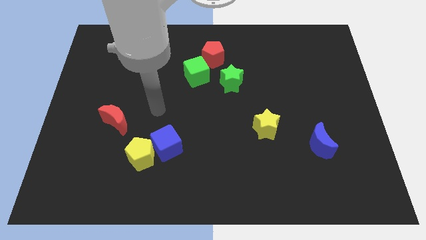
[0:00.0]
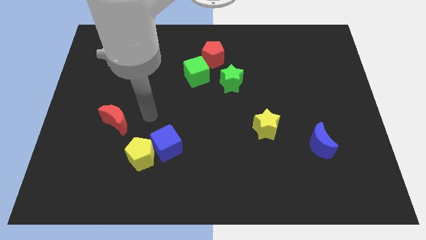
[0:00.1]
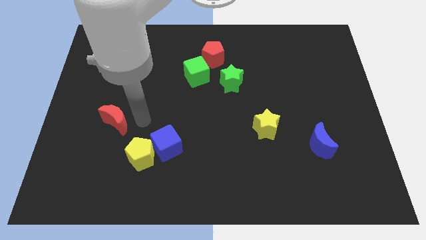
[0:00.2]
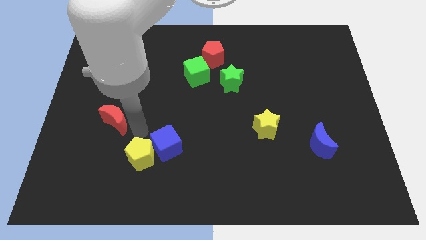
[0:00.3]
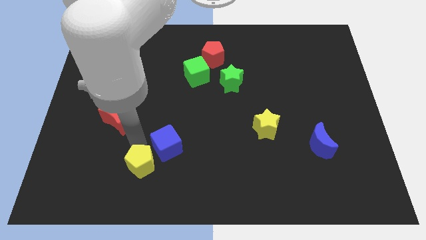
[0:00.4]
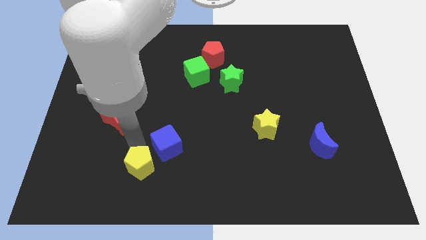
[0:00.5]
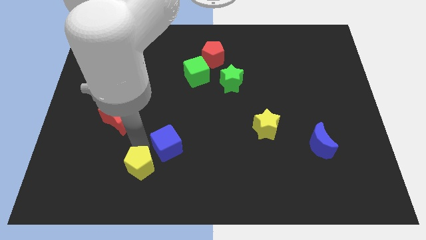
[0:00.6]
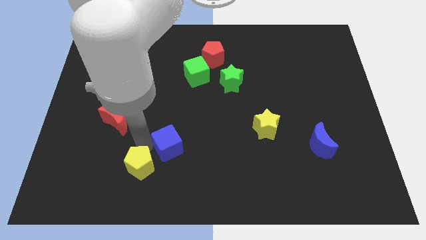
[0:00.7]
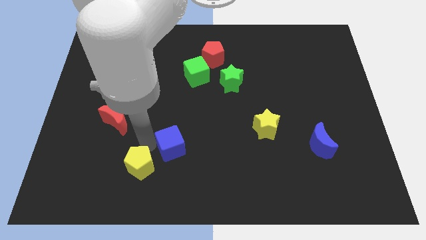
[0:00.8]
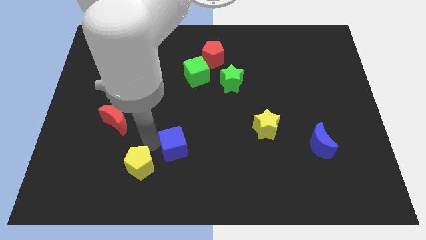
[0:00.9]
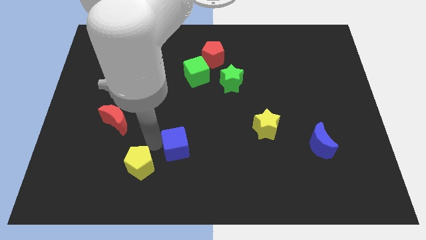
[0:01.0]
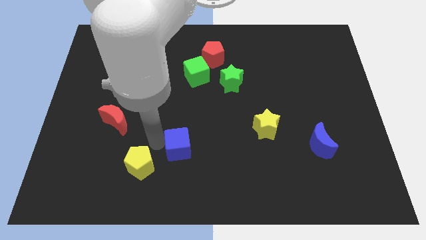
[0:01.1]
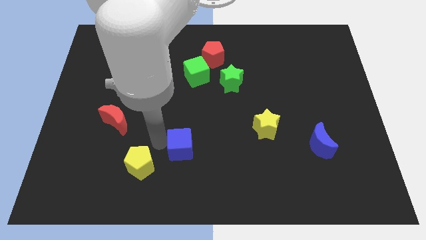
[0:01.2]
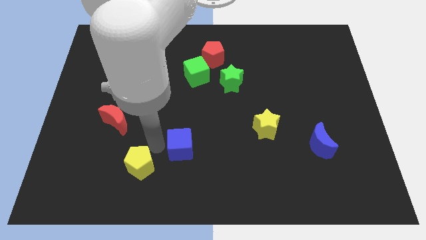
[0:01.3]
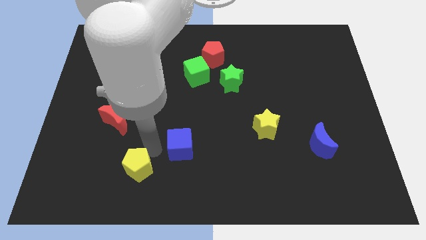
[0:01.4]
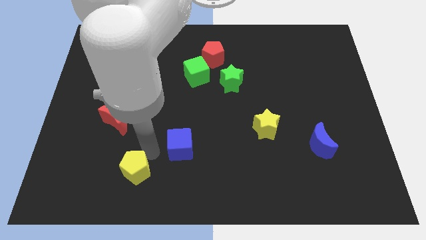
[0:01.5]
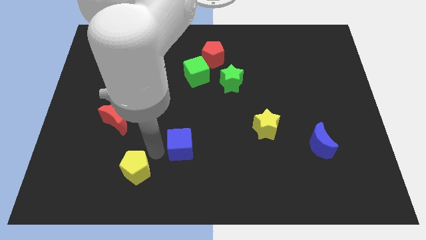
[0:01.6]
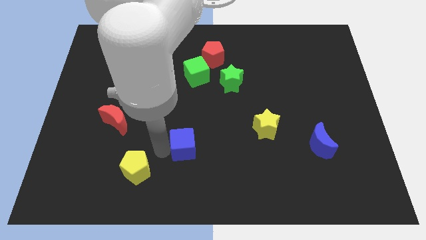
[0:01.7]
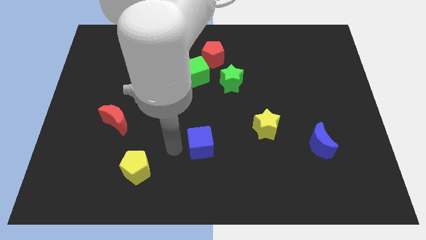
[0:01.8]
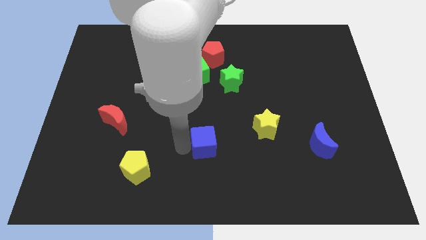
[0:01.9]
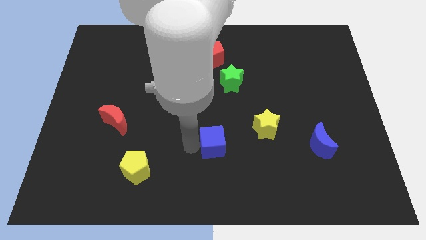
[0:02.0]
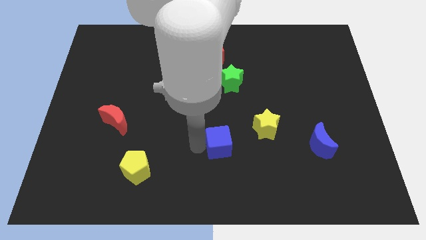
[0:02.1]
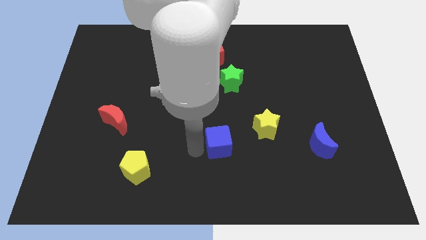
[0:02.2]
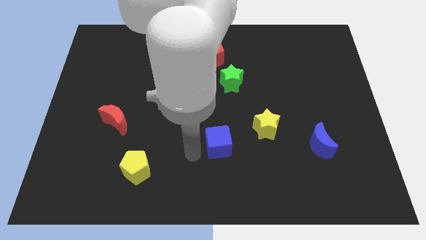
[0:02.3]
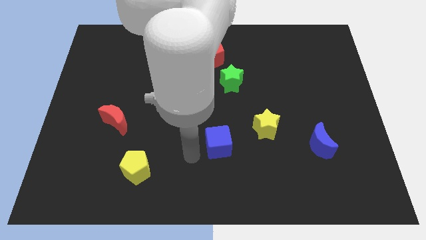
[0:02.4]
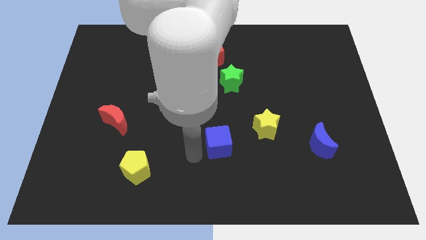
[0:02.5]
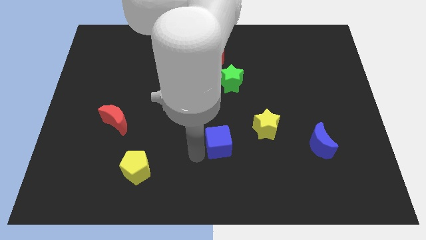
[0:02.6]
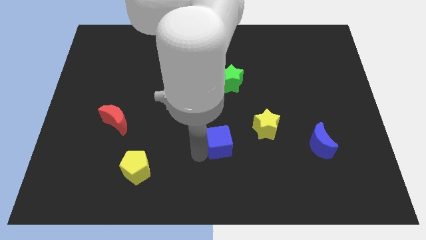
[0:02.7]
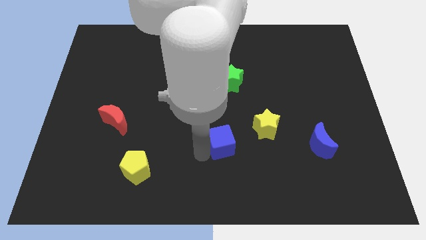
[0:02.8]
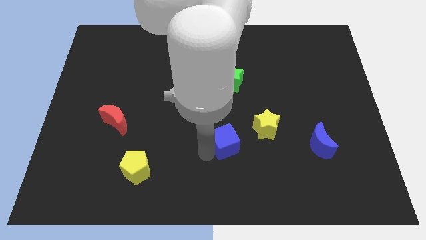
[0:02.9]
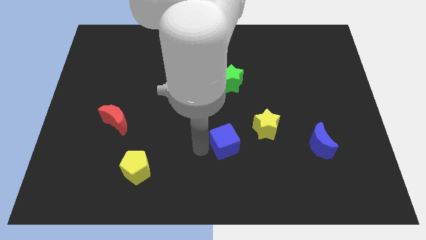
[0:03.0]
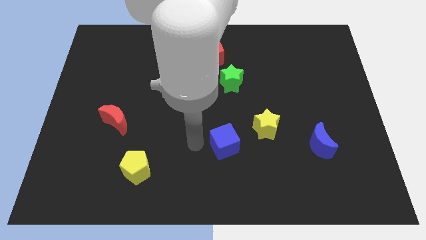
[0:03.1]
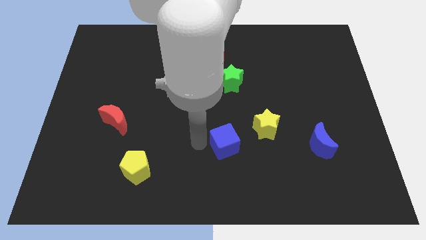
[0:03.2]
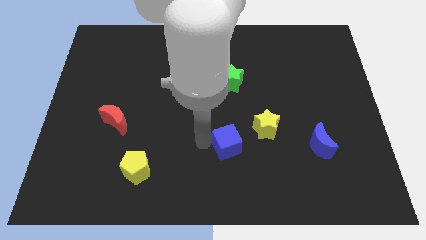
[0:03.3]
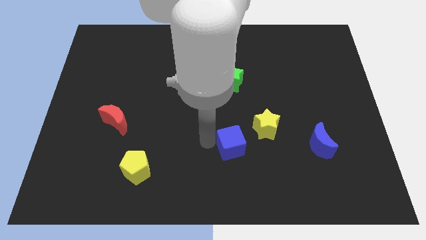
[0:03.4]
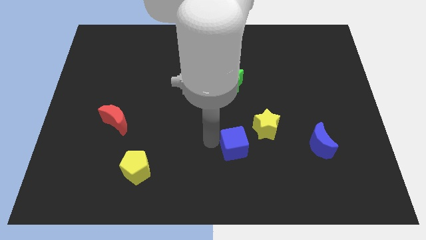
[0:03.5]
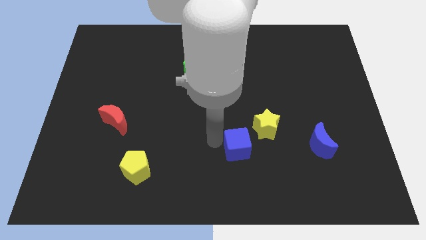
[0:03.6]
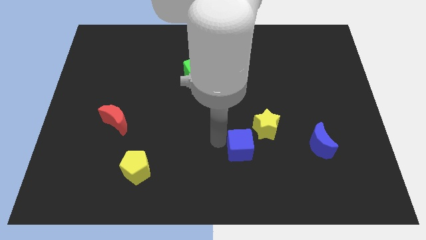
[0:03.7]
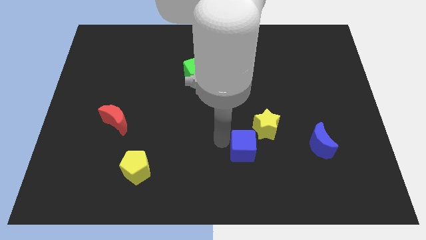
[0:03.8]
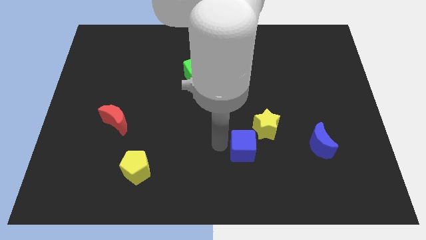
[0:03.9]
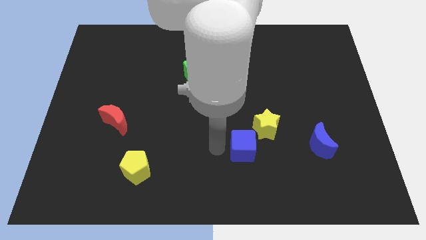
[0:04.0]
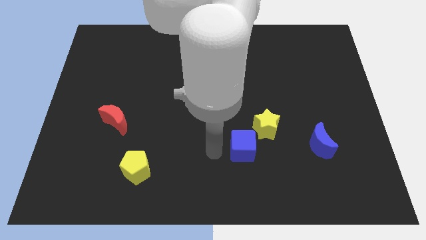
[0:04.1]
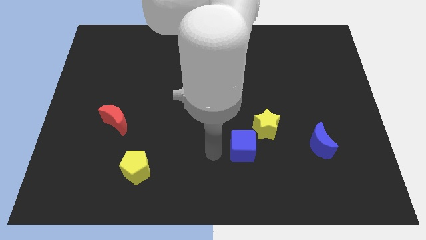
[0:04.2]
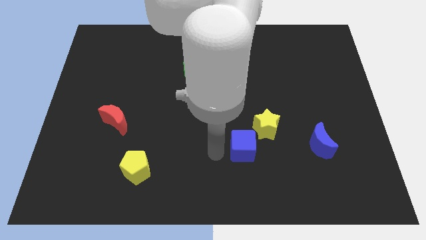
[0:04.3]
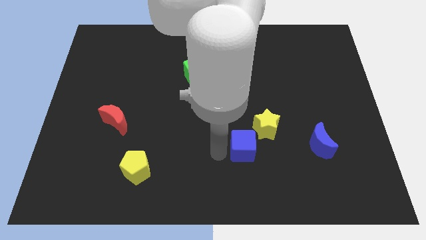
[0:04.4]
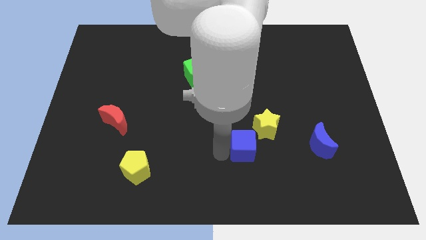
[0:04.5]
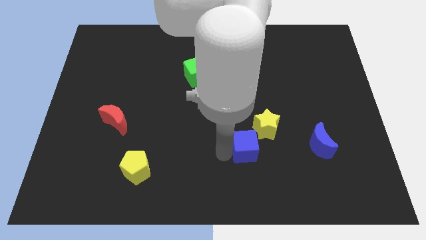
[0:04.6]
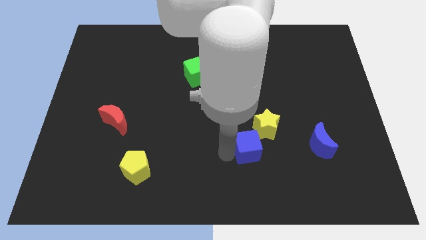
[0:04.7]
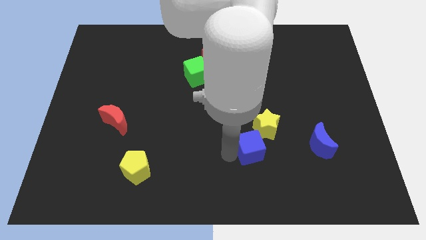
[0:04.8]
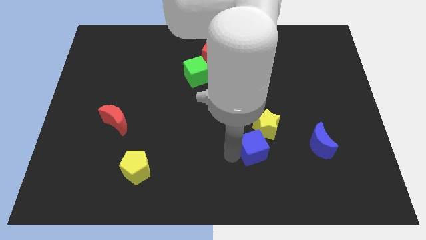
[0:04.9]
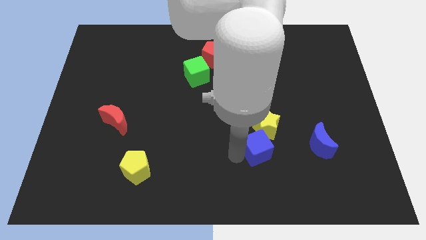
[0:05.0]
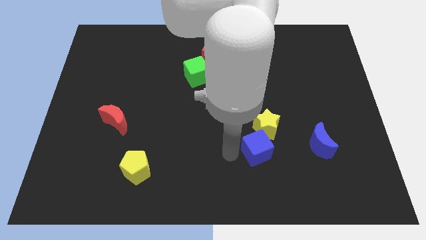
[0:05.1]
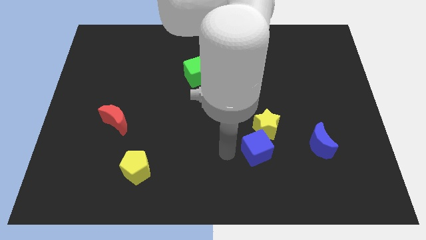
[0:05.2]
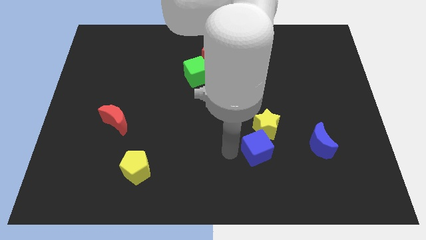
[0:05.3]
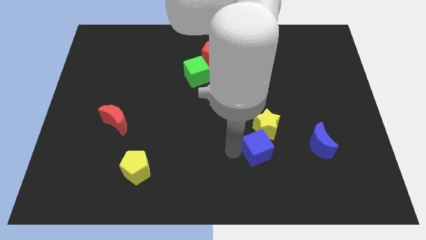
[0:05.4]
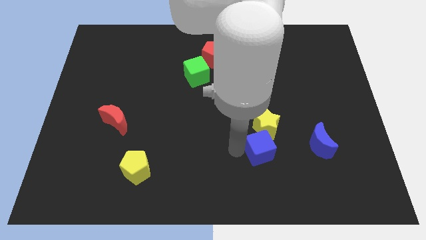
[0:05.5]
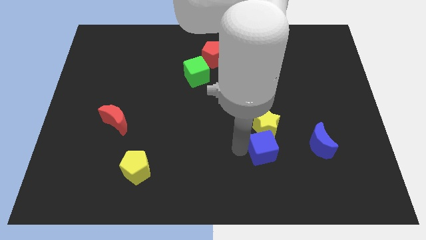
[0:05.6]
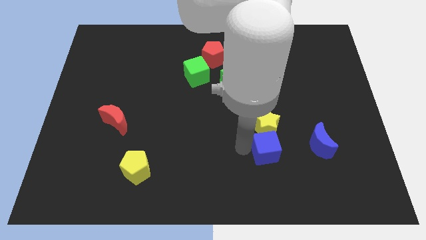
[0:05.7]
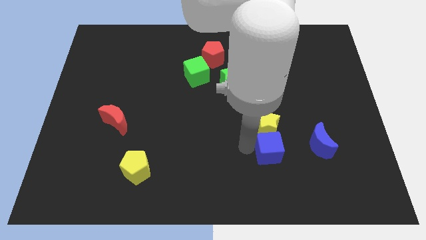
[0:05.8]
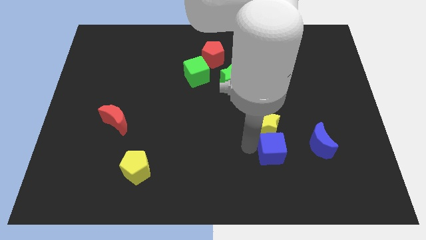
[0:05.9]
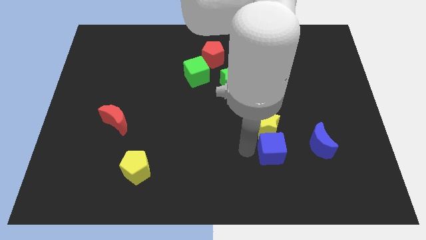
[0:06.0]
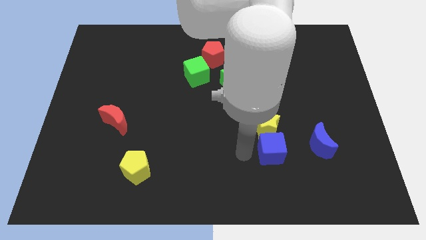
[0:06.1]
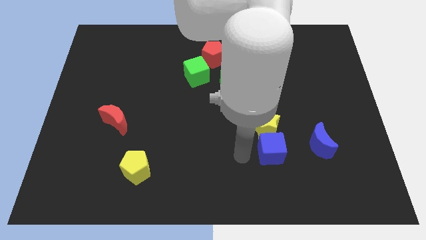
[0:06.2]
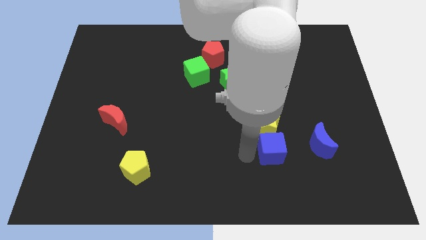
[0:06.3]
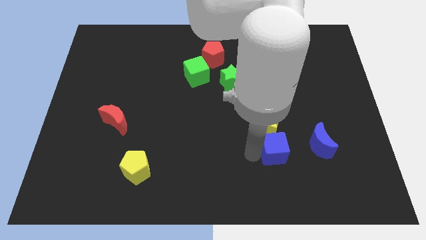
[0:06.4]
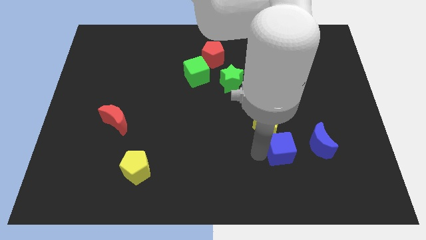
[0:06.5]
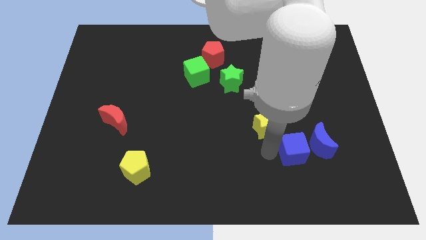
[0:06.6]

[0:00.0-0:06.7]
put the blue cube next to the blue moon

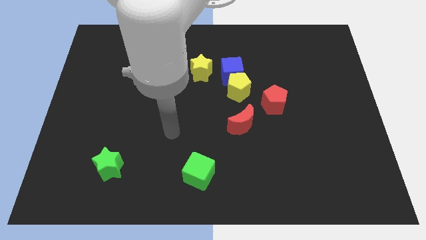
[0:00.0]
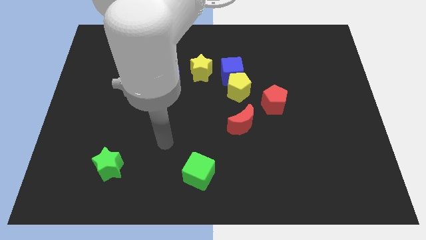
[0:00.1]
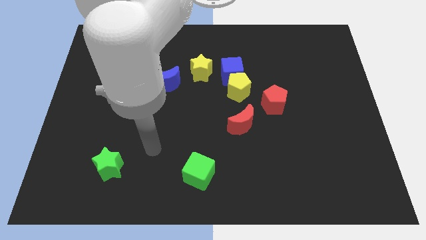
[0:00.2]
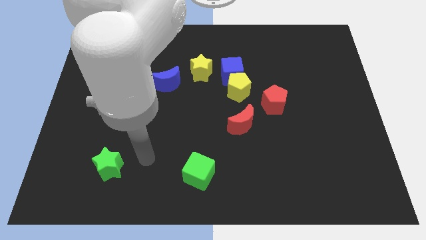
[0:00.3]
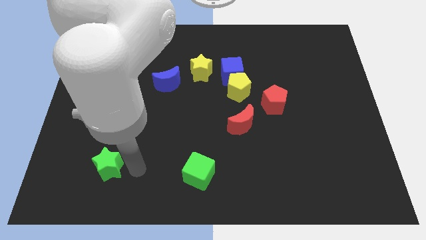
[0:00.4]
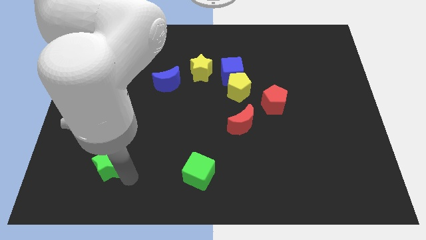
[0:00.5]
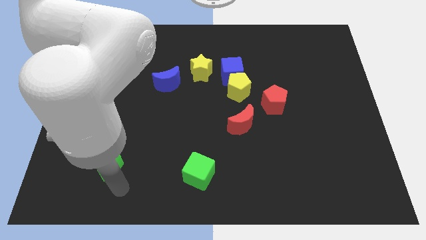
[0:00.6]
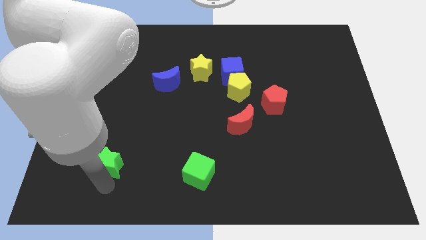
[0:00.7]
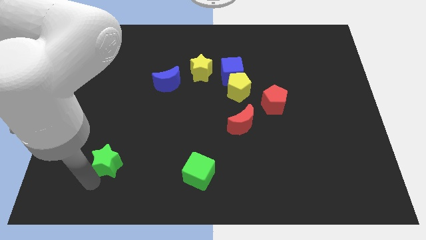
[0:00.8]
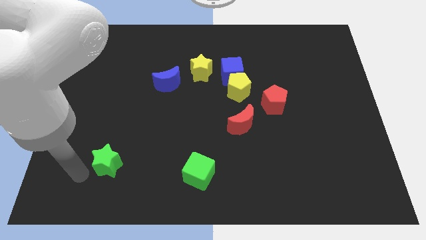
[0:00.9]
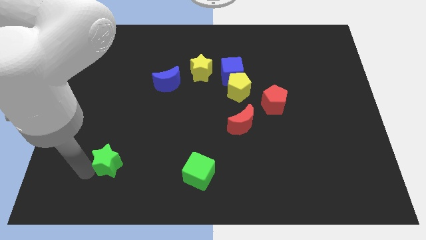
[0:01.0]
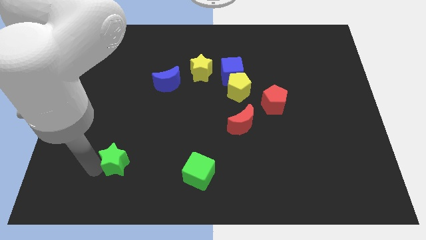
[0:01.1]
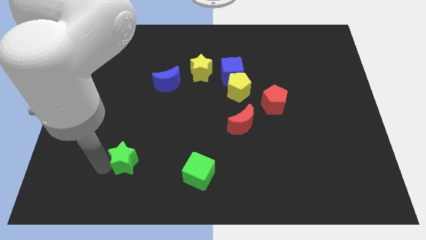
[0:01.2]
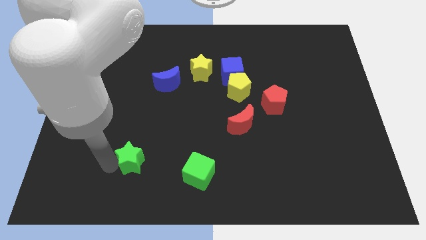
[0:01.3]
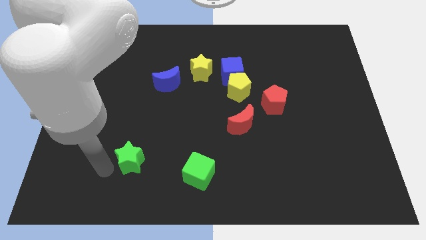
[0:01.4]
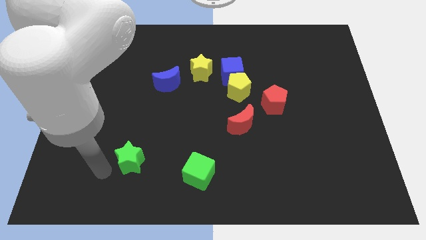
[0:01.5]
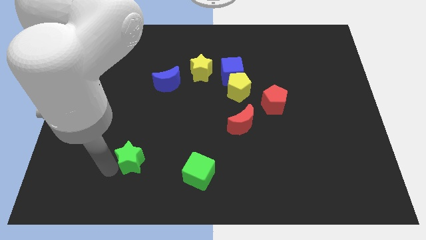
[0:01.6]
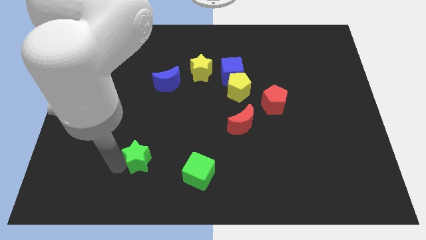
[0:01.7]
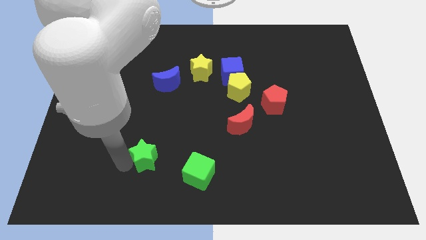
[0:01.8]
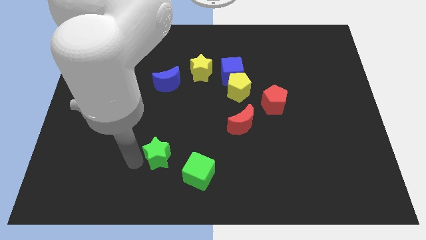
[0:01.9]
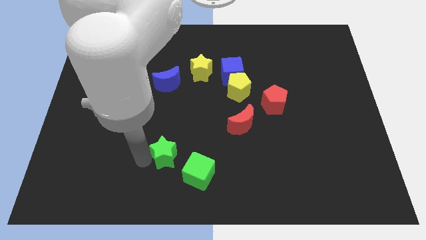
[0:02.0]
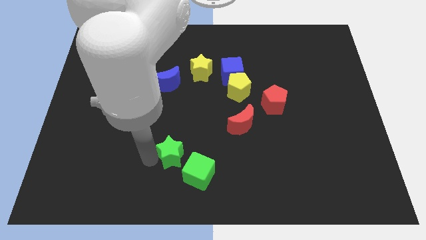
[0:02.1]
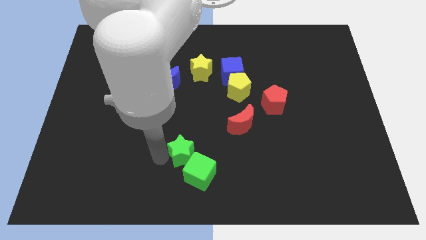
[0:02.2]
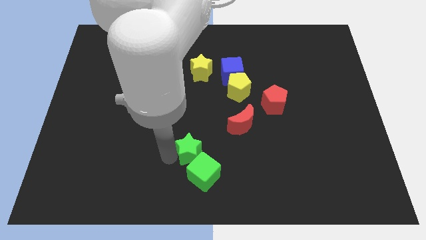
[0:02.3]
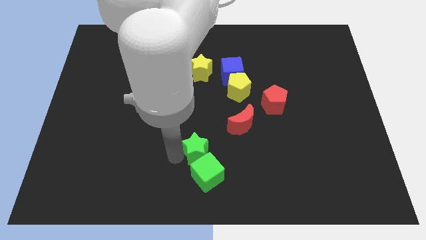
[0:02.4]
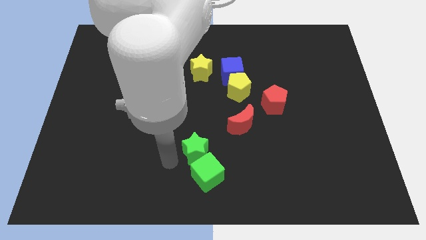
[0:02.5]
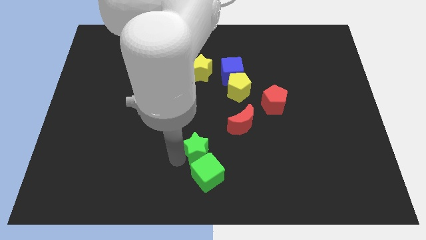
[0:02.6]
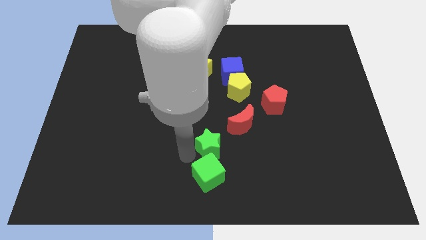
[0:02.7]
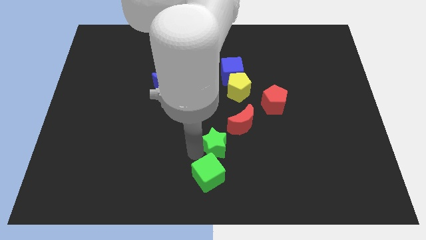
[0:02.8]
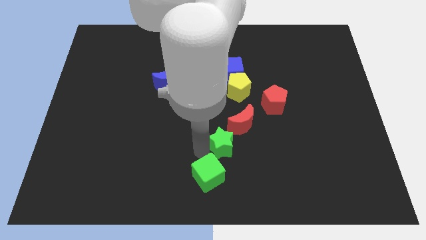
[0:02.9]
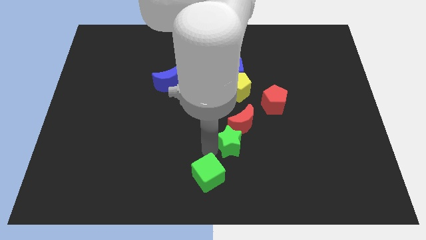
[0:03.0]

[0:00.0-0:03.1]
push the green star next to the red moon
